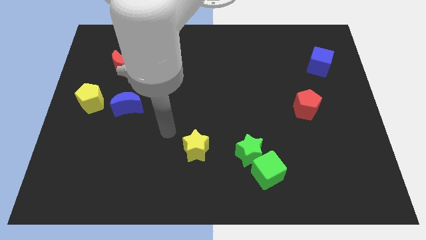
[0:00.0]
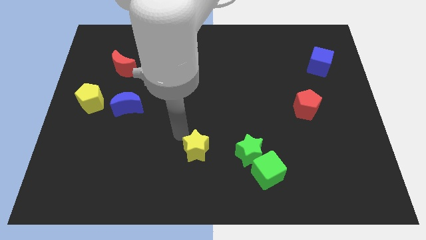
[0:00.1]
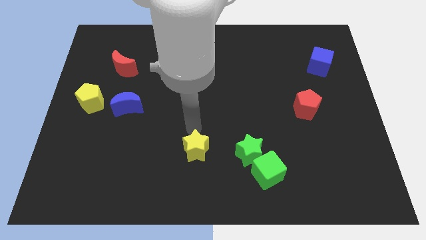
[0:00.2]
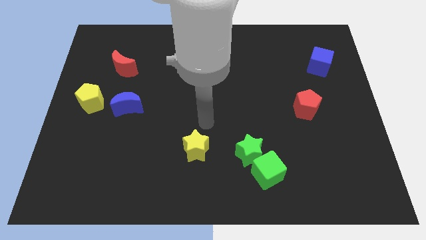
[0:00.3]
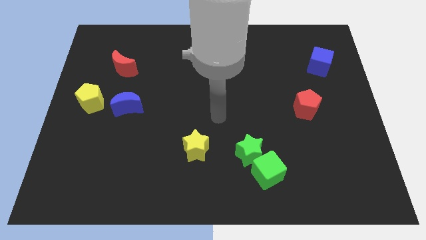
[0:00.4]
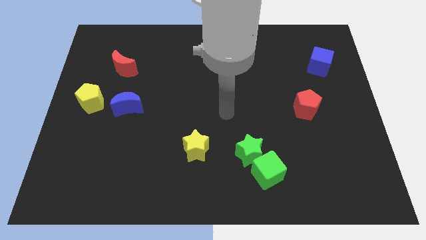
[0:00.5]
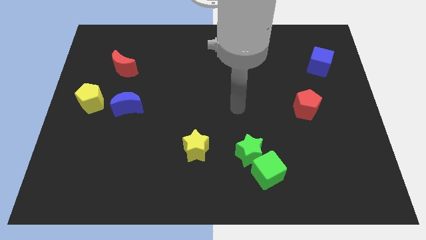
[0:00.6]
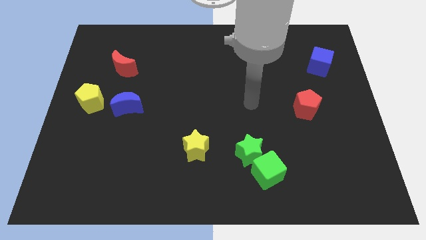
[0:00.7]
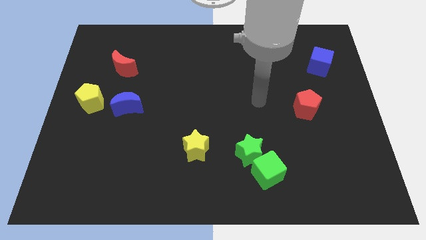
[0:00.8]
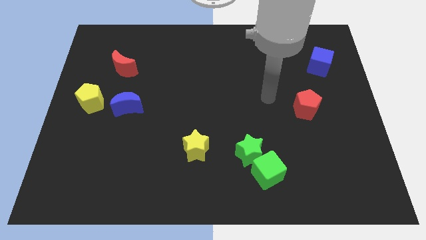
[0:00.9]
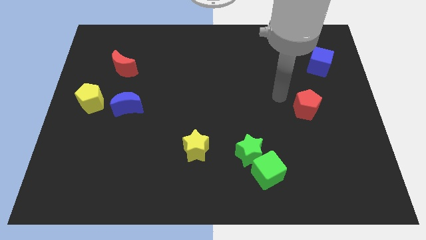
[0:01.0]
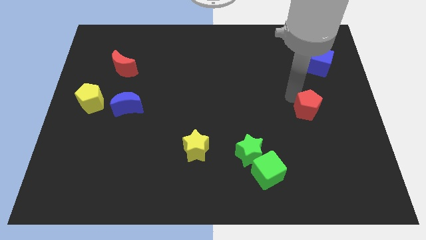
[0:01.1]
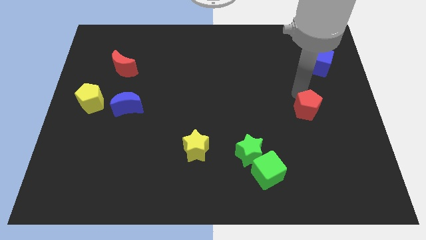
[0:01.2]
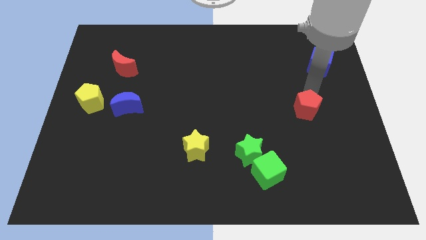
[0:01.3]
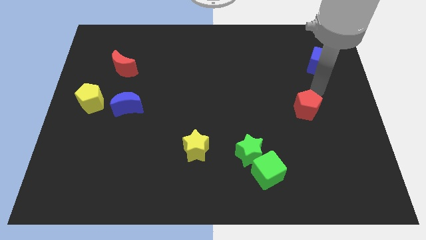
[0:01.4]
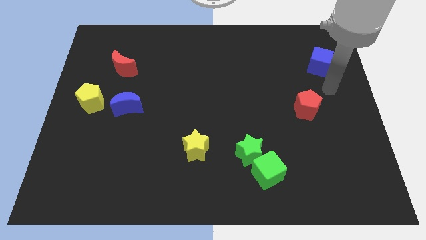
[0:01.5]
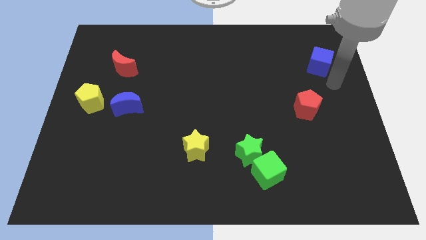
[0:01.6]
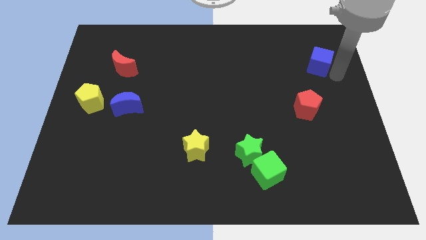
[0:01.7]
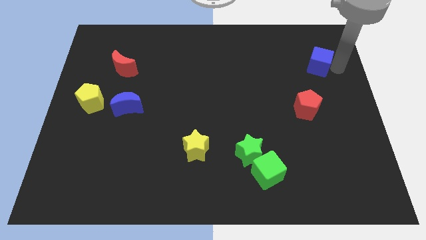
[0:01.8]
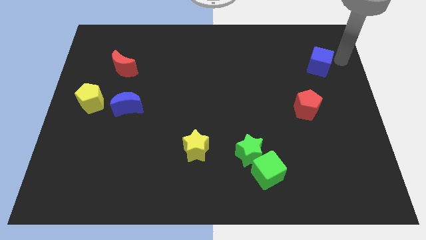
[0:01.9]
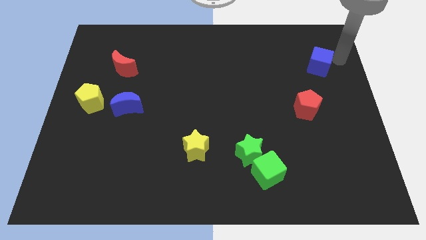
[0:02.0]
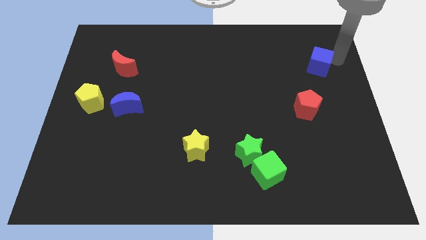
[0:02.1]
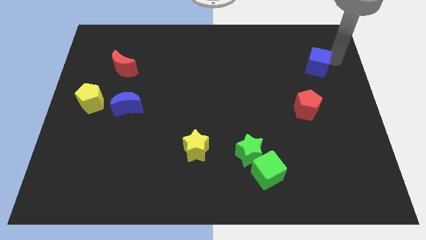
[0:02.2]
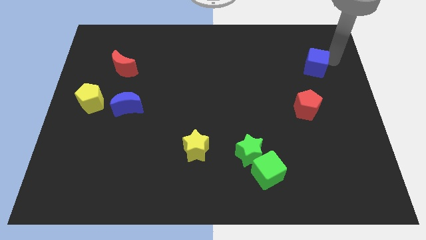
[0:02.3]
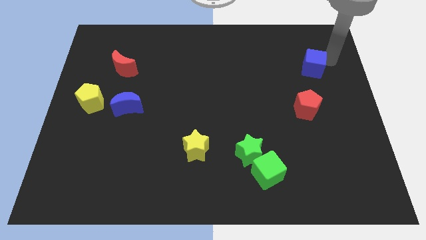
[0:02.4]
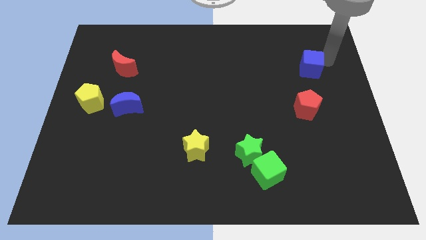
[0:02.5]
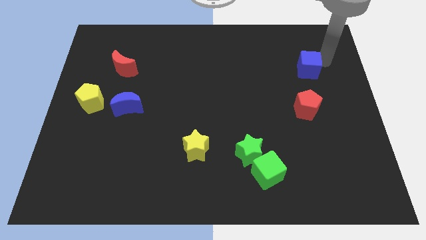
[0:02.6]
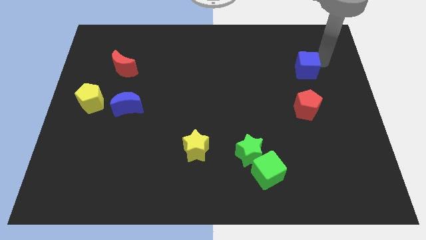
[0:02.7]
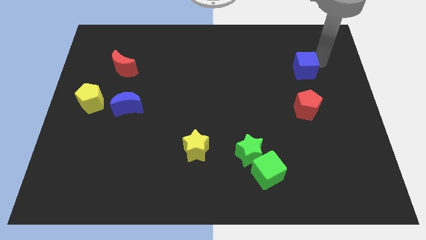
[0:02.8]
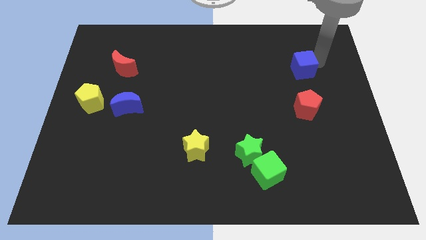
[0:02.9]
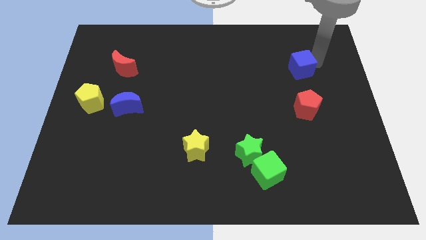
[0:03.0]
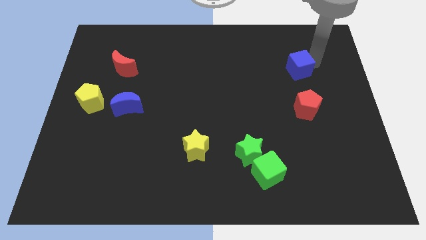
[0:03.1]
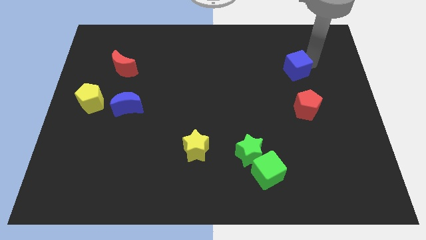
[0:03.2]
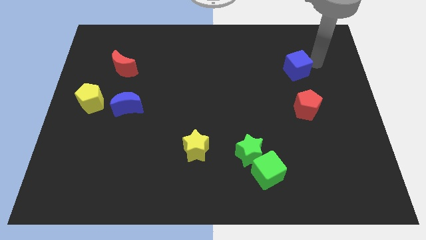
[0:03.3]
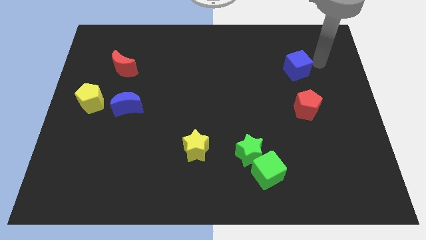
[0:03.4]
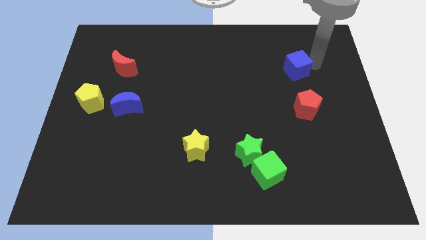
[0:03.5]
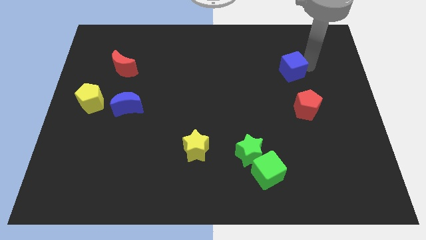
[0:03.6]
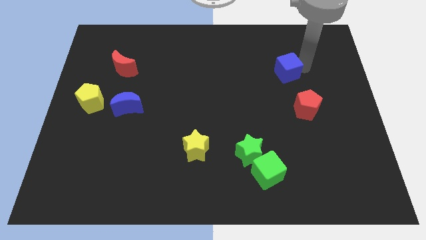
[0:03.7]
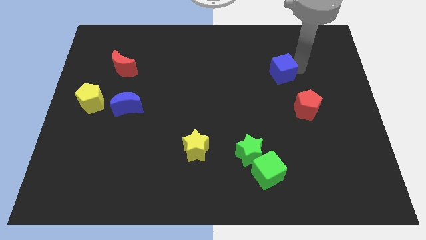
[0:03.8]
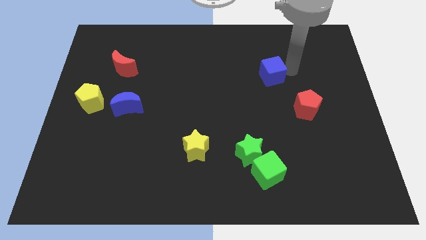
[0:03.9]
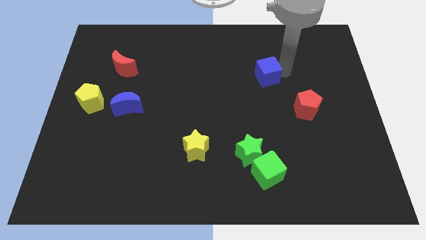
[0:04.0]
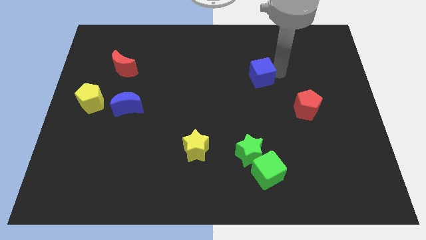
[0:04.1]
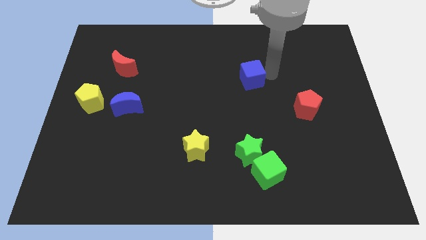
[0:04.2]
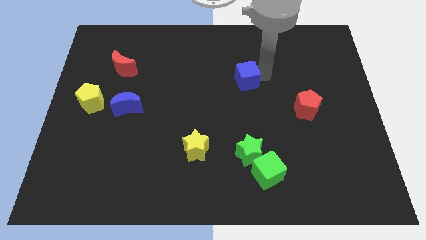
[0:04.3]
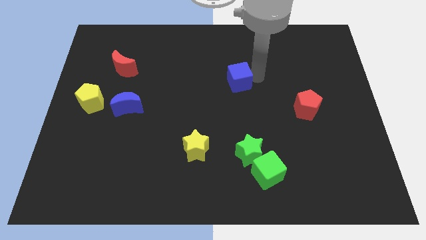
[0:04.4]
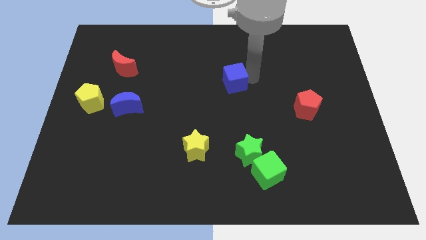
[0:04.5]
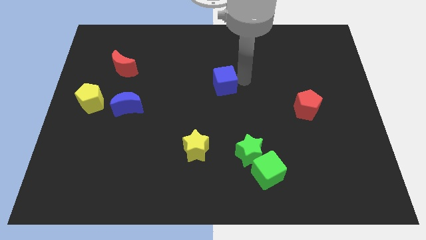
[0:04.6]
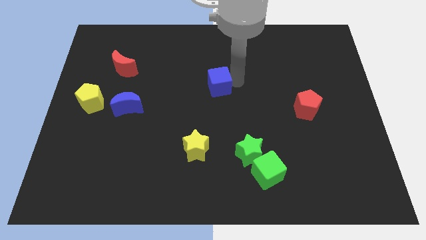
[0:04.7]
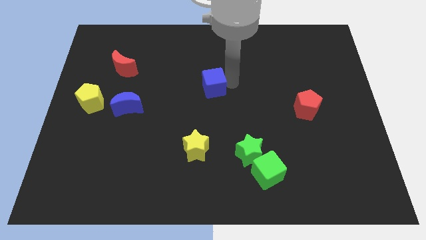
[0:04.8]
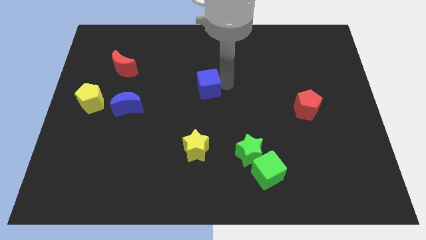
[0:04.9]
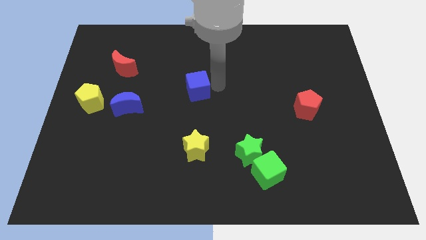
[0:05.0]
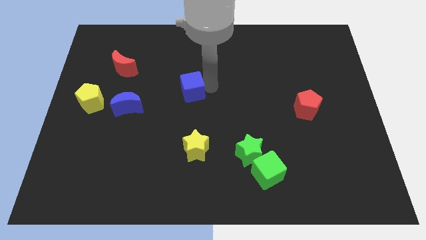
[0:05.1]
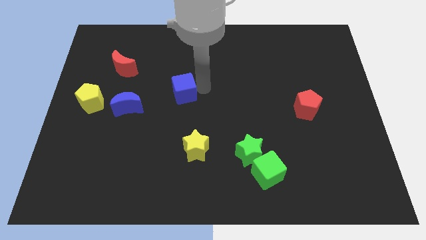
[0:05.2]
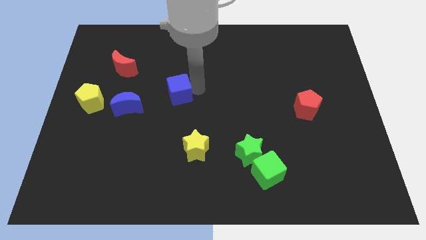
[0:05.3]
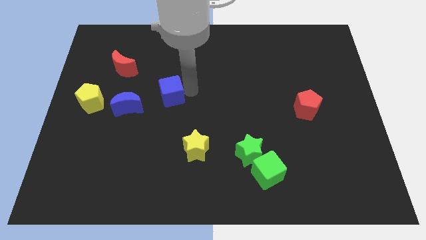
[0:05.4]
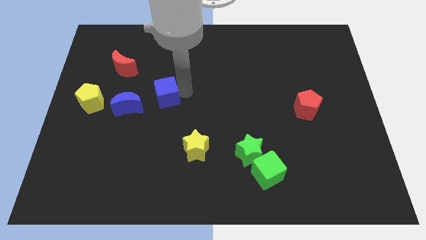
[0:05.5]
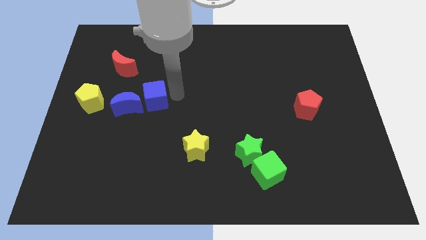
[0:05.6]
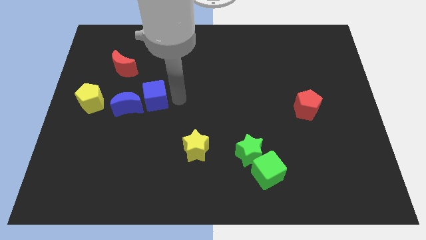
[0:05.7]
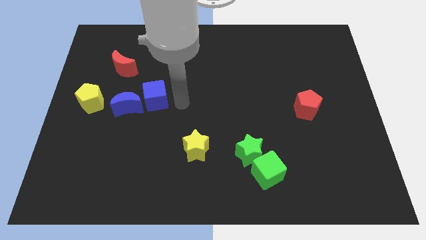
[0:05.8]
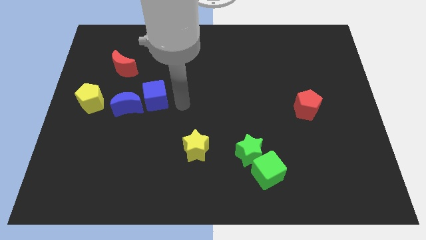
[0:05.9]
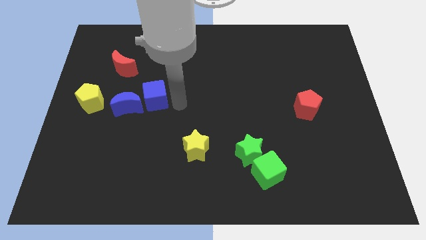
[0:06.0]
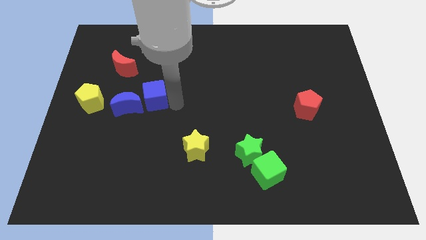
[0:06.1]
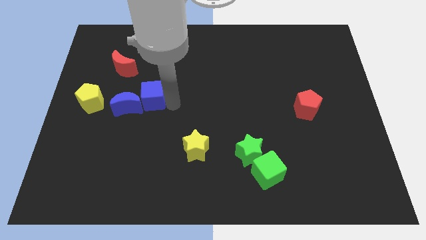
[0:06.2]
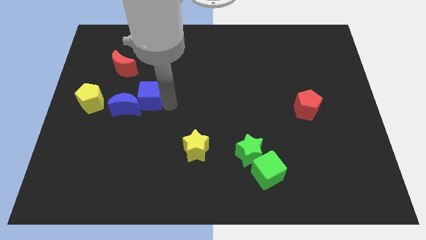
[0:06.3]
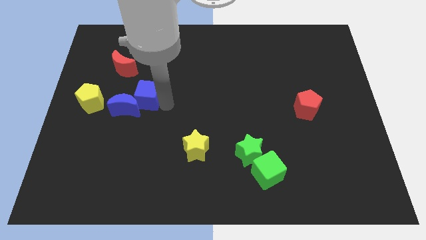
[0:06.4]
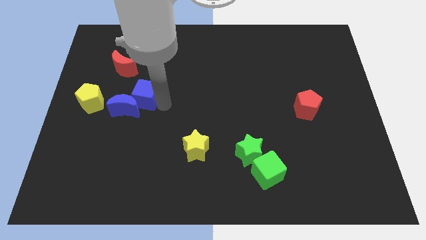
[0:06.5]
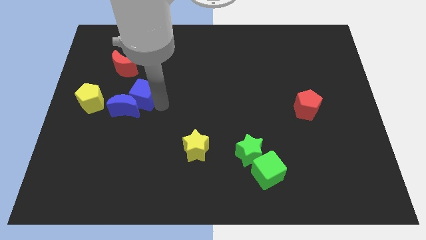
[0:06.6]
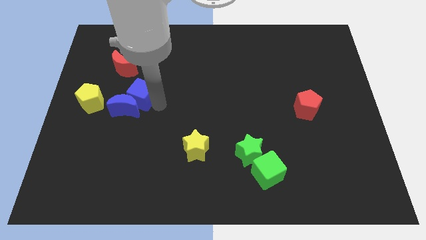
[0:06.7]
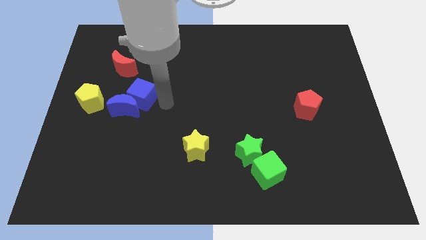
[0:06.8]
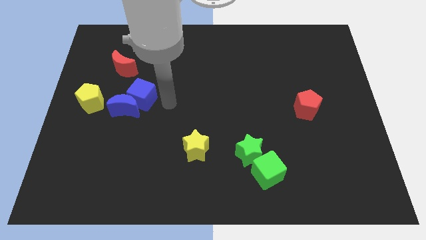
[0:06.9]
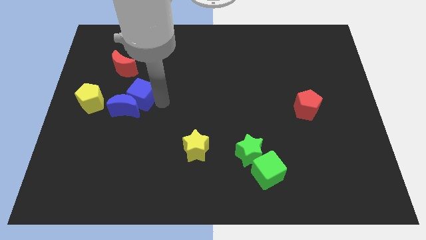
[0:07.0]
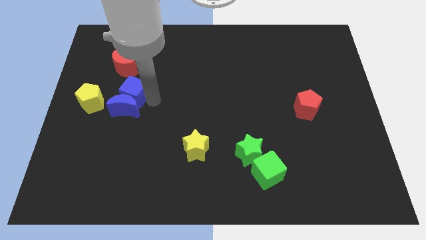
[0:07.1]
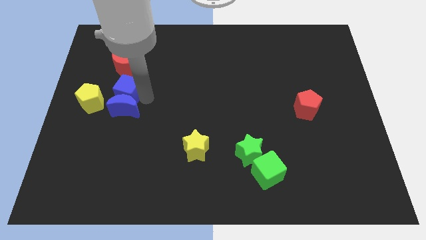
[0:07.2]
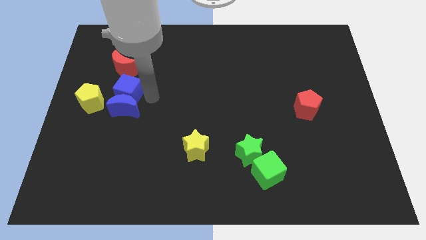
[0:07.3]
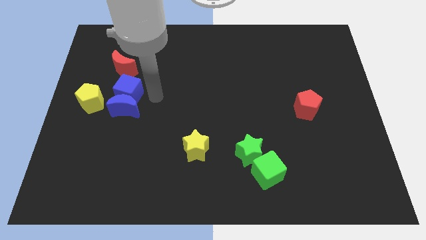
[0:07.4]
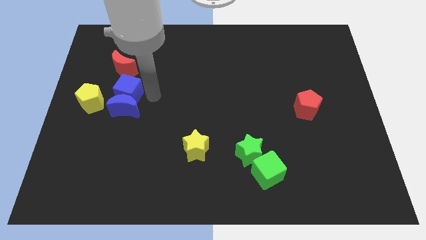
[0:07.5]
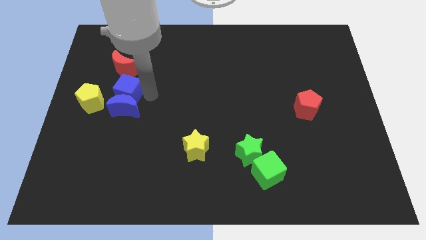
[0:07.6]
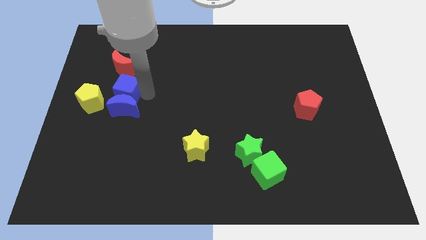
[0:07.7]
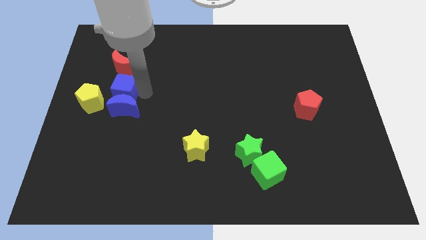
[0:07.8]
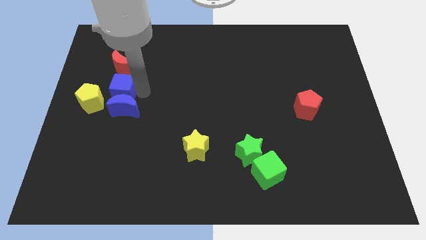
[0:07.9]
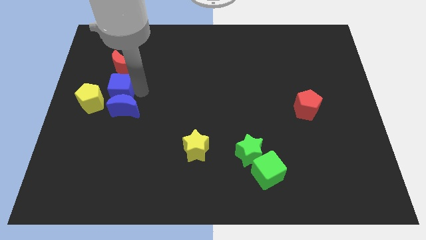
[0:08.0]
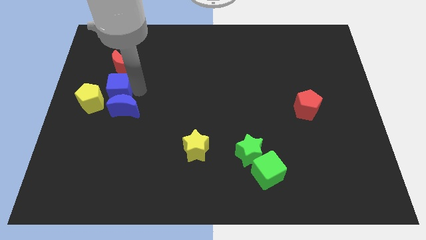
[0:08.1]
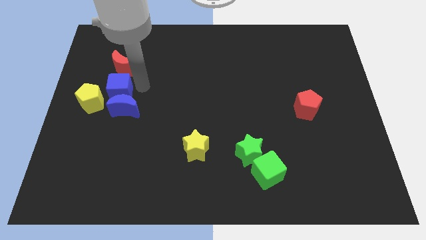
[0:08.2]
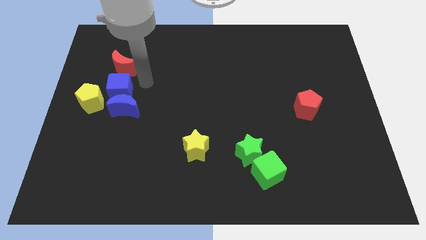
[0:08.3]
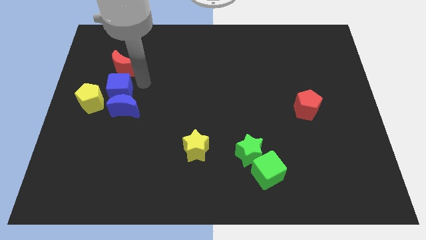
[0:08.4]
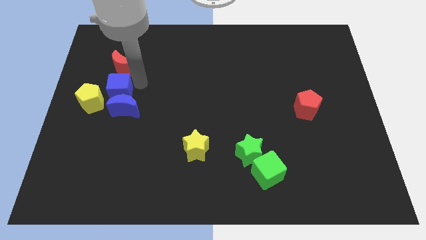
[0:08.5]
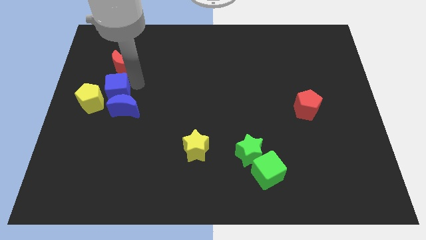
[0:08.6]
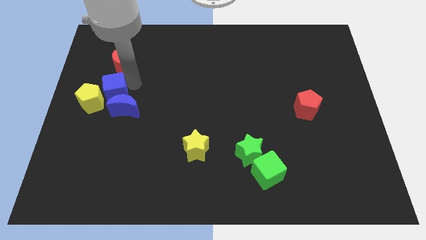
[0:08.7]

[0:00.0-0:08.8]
move the blue cube to the yellow pentagon
